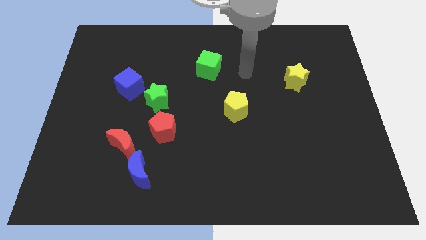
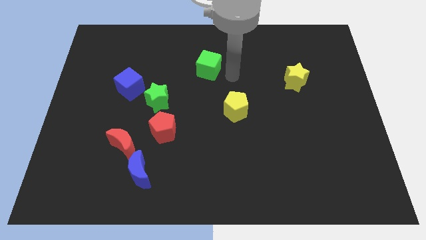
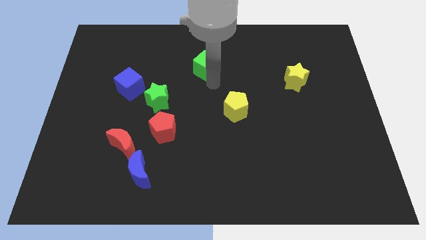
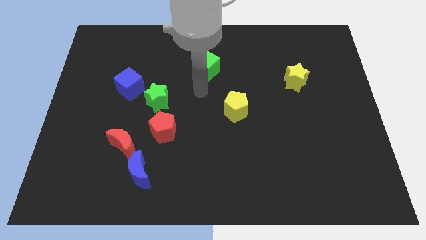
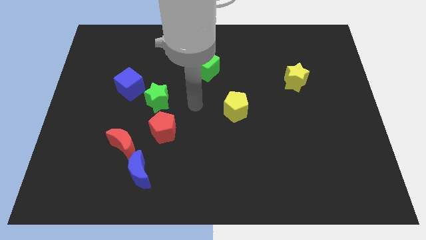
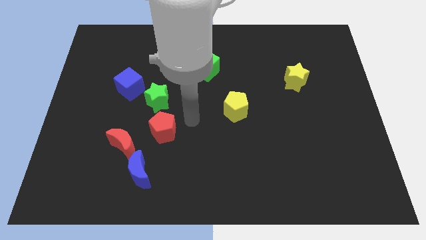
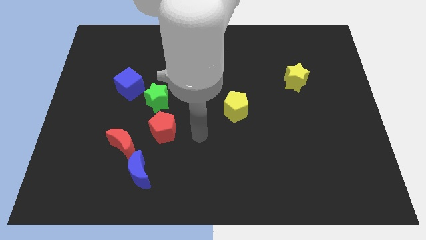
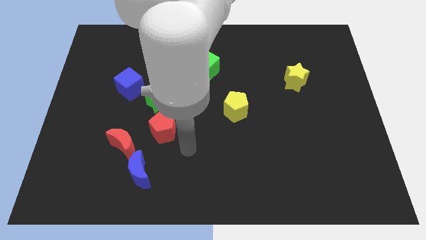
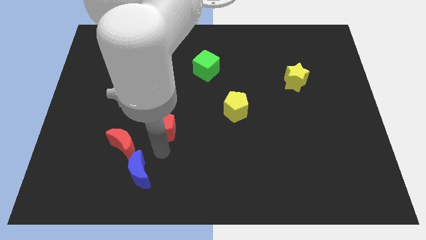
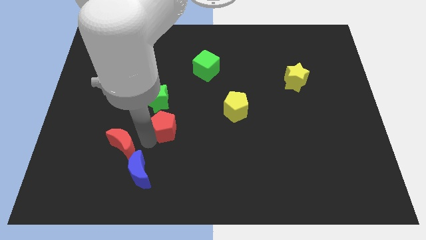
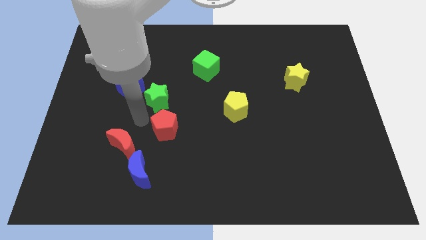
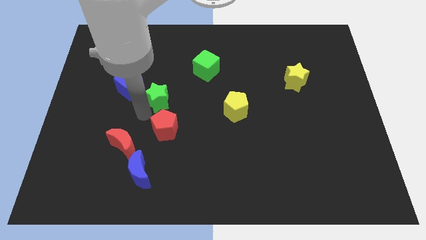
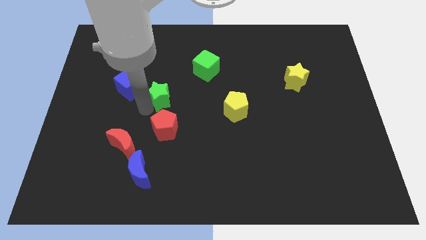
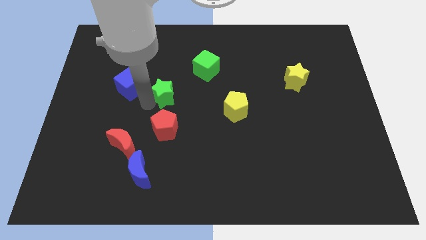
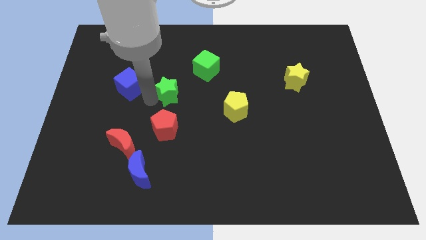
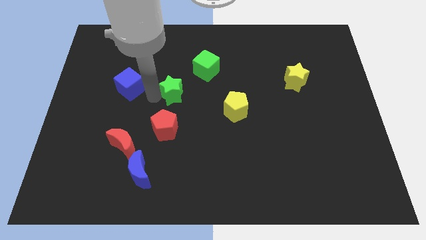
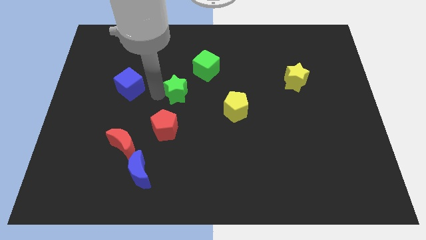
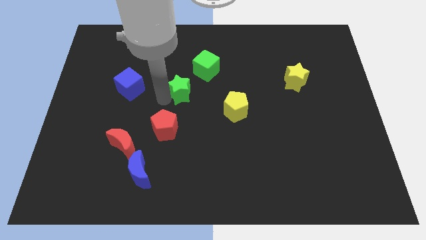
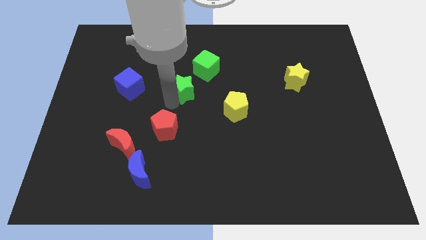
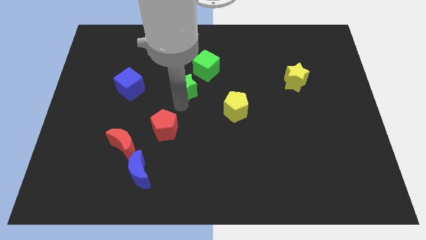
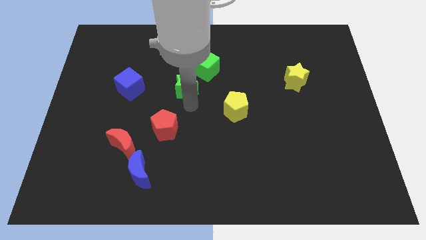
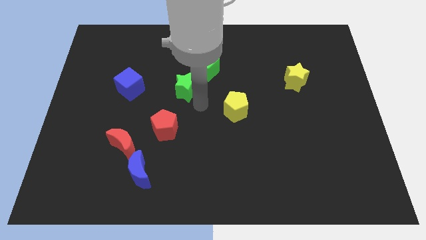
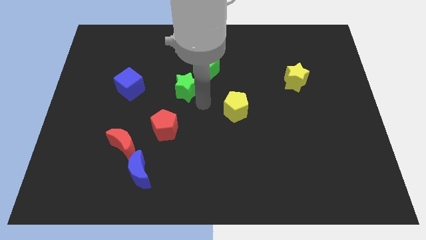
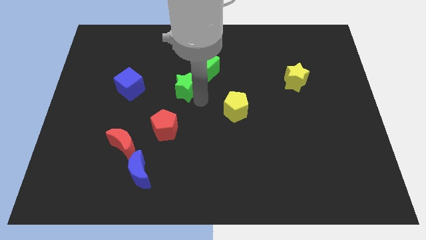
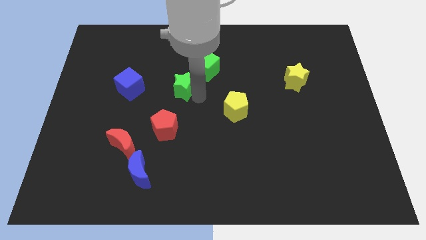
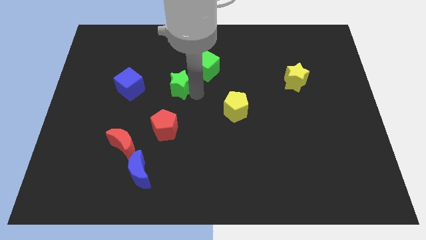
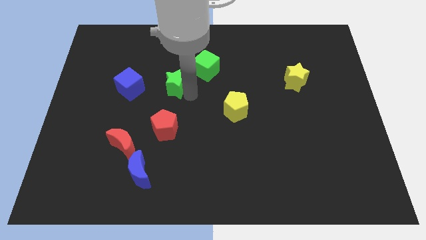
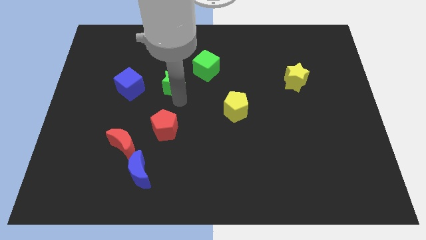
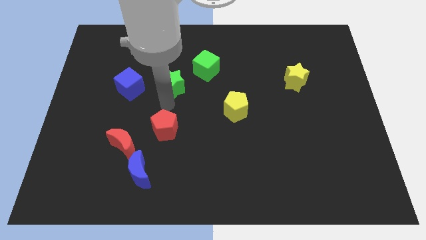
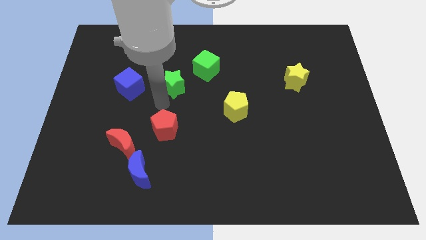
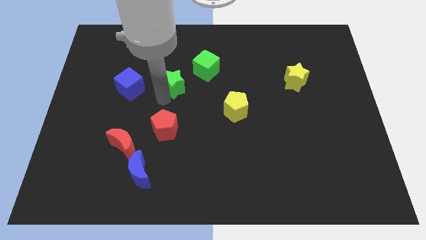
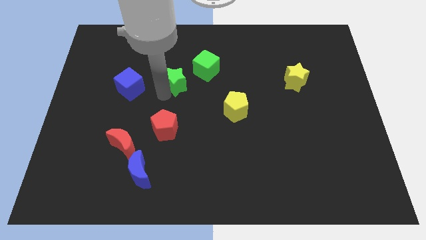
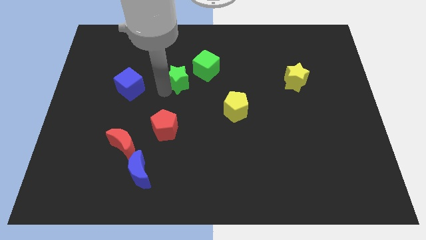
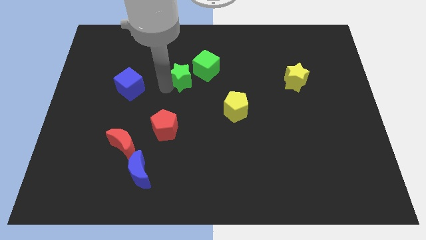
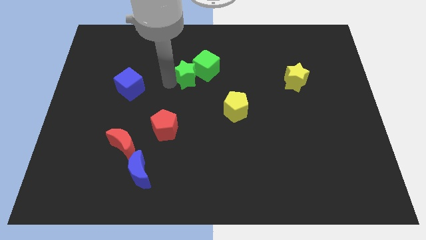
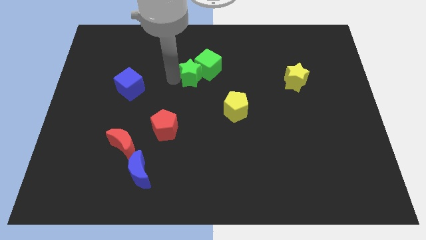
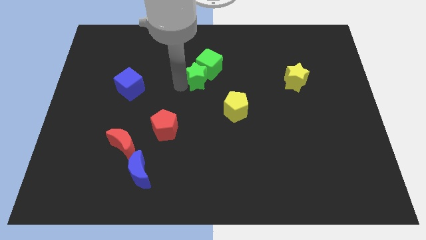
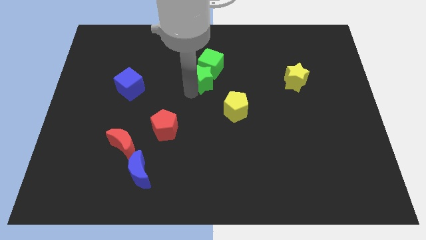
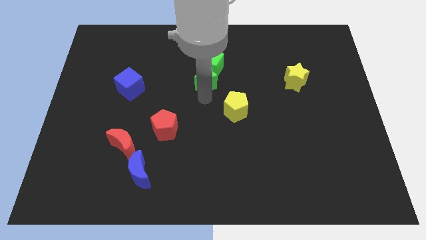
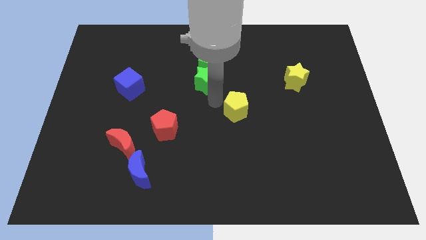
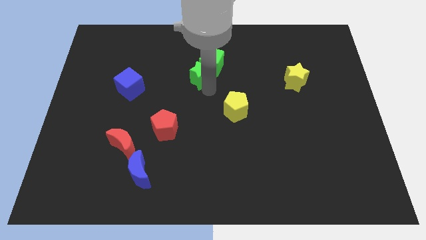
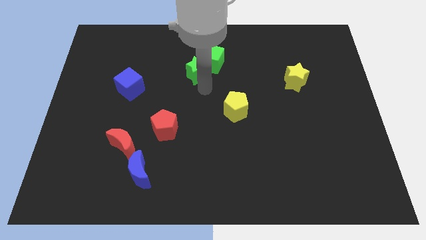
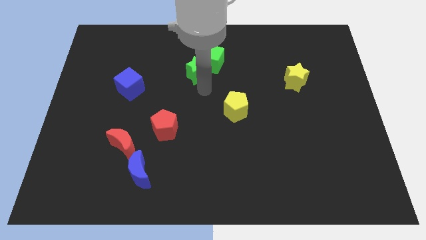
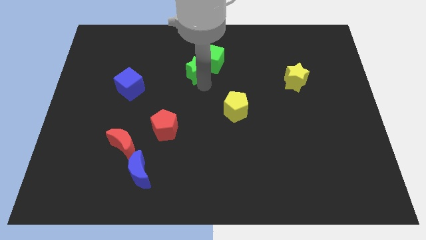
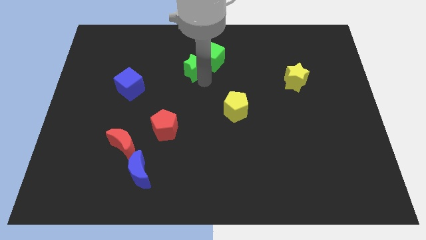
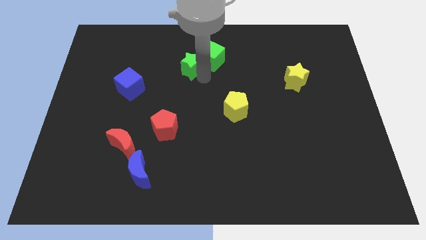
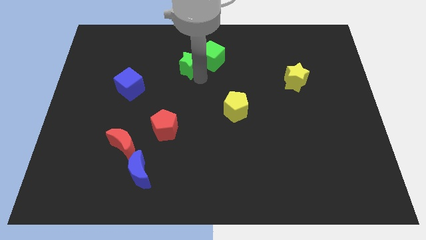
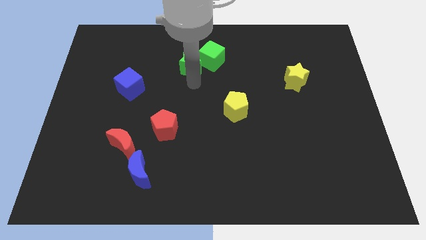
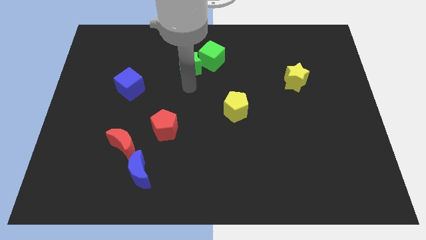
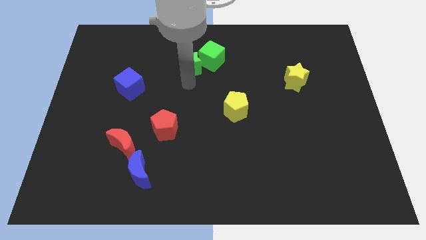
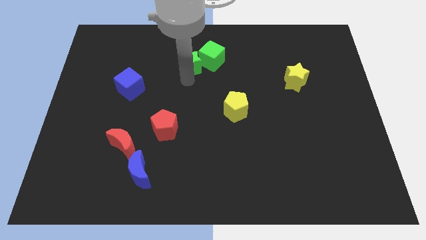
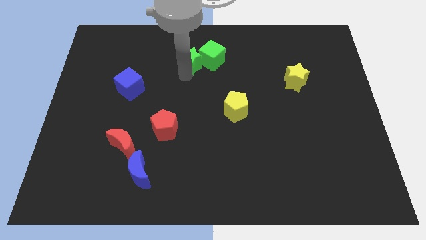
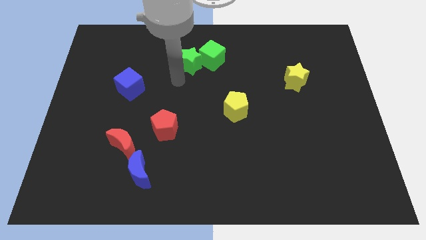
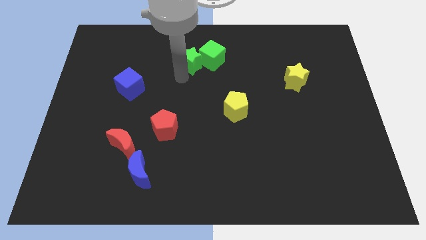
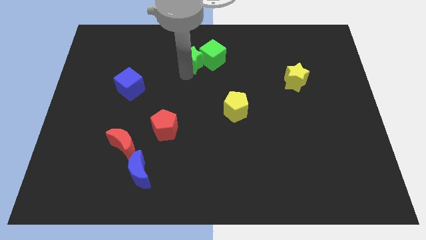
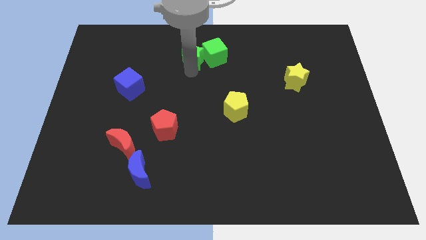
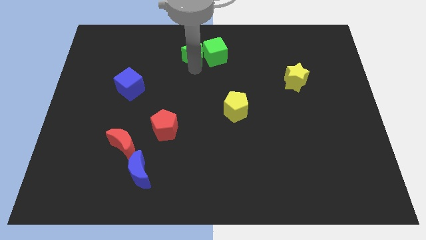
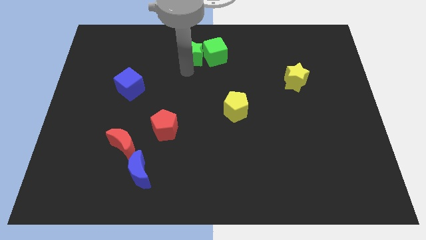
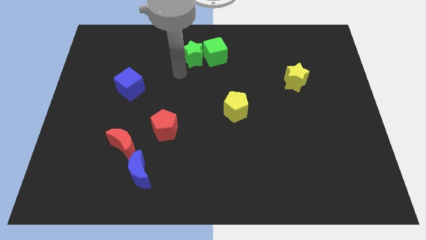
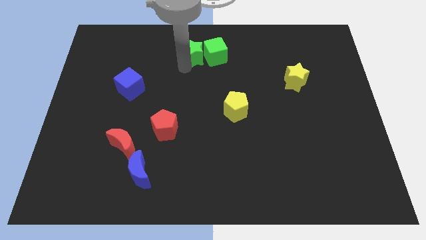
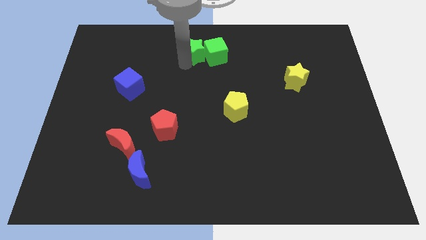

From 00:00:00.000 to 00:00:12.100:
move the green star to the top side

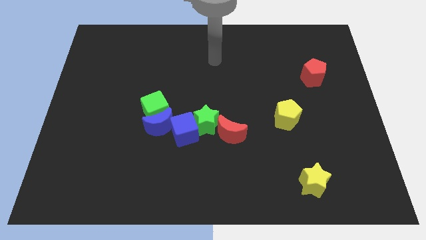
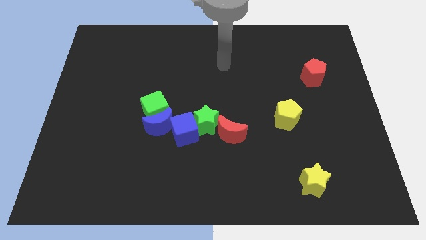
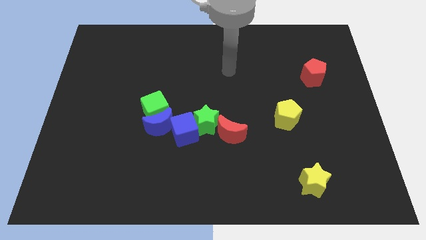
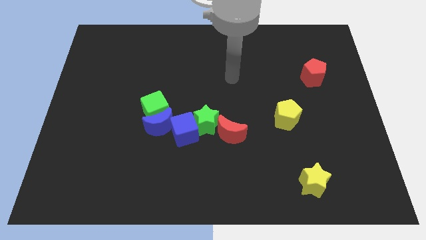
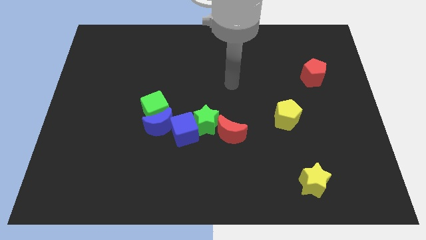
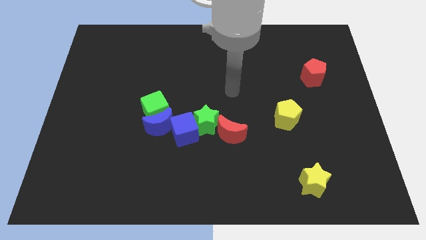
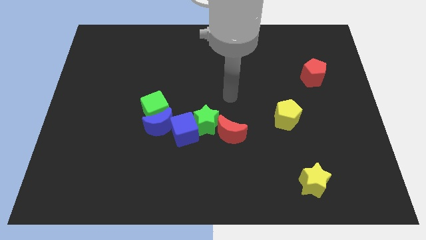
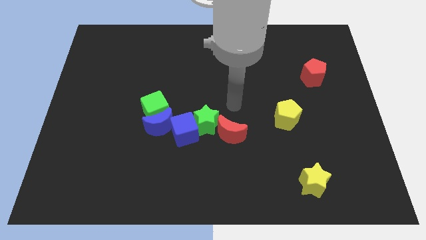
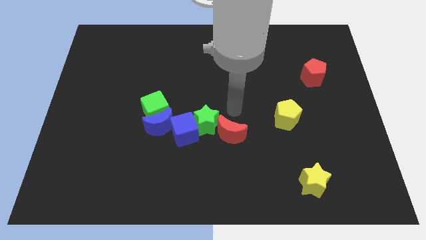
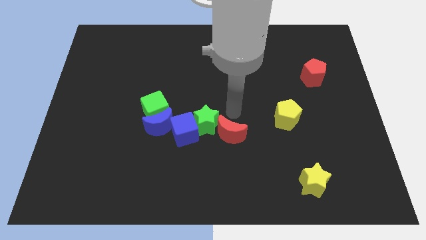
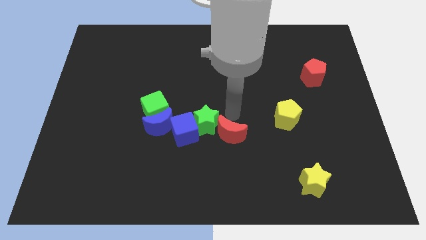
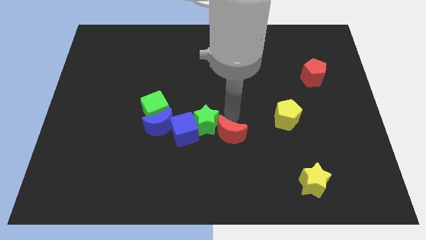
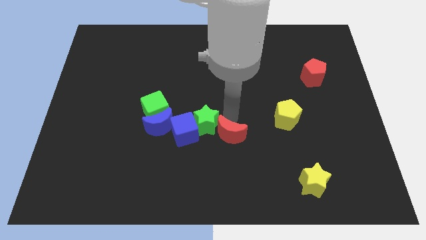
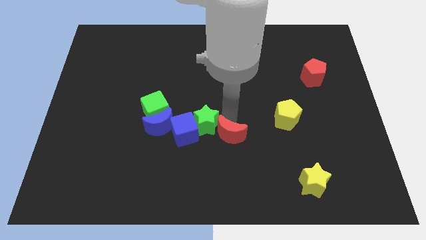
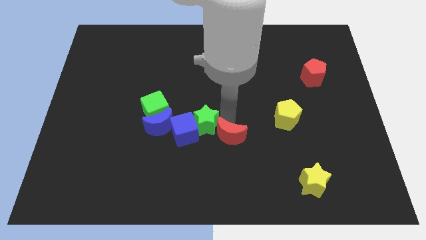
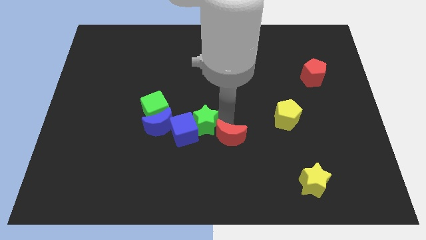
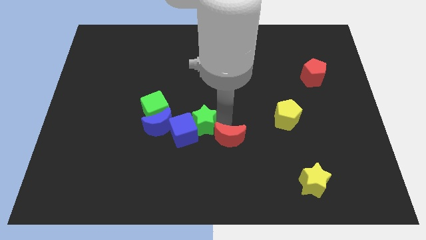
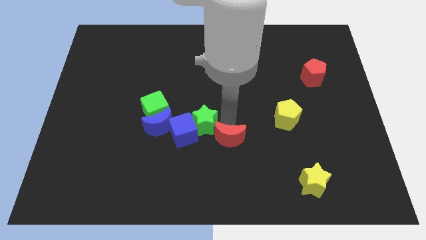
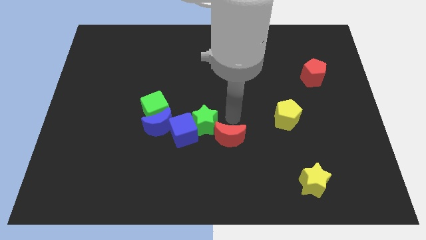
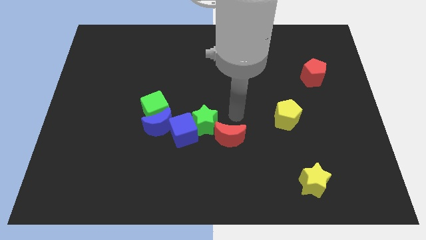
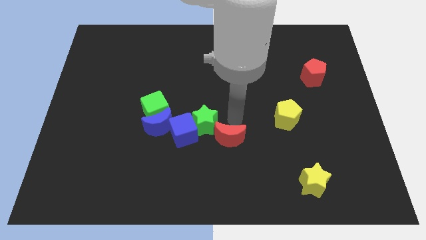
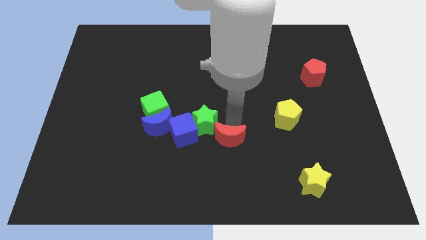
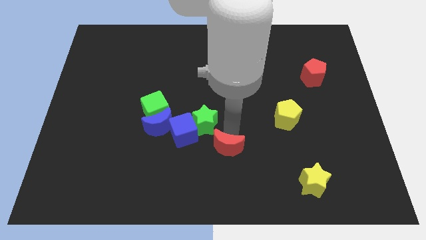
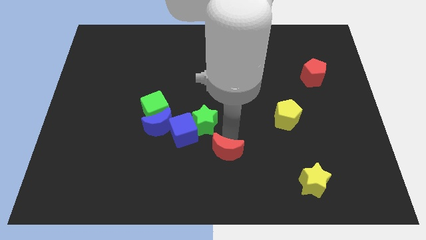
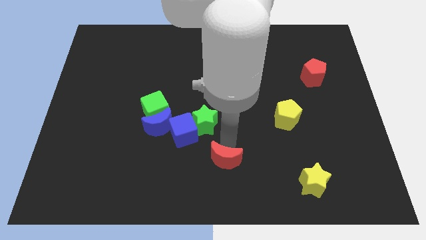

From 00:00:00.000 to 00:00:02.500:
push the red moon to the bottom
